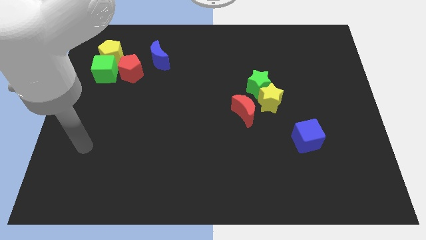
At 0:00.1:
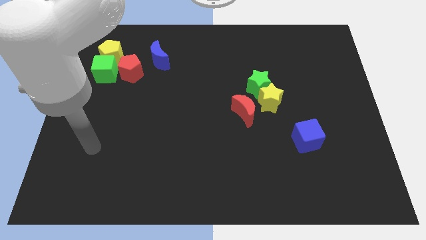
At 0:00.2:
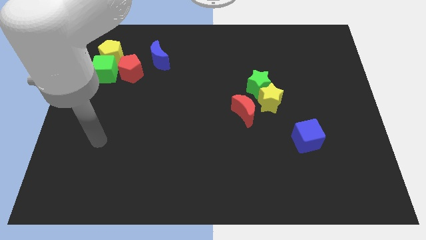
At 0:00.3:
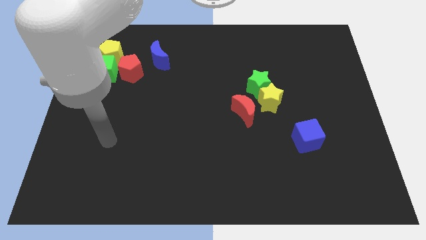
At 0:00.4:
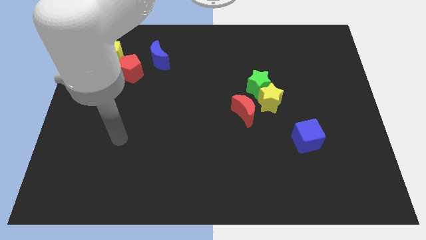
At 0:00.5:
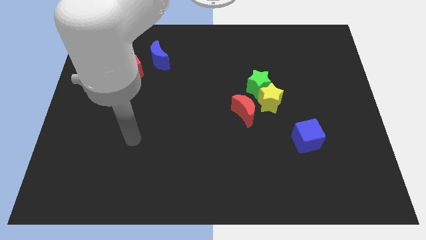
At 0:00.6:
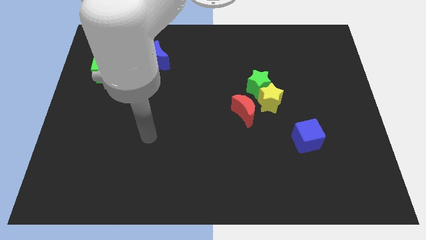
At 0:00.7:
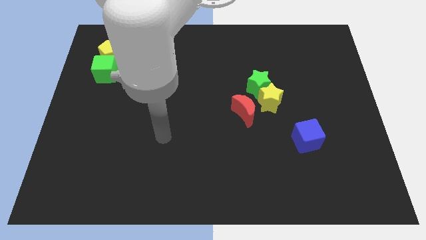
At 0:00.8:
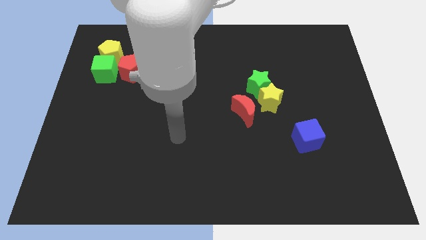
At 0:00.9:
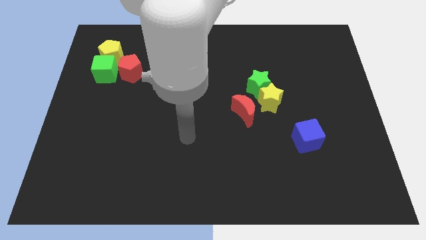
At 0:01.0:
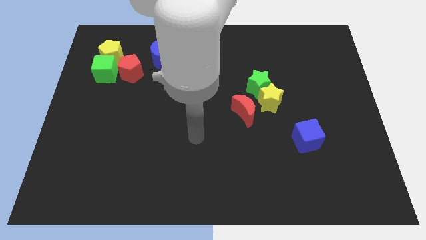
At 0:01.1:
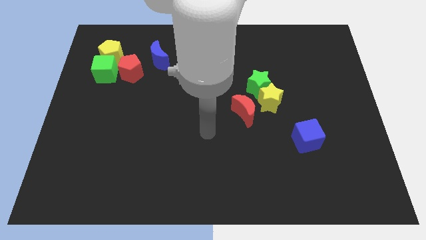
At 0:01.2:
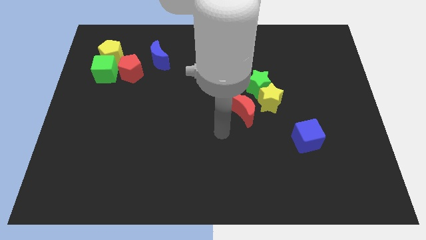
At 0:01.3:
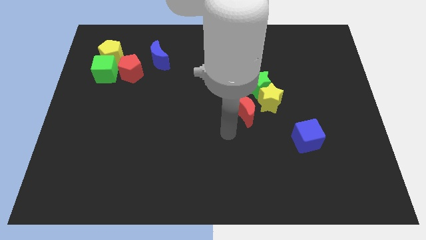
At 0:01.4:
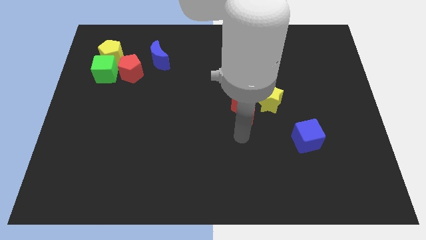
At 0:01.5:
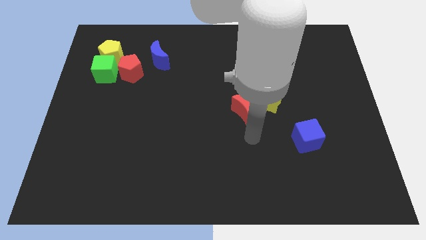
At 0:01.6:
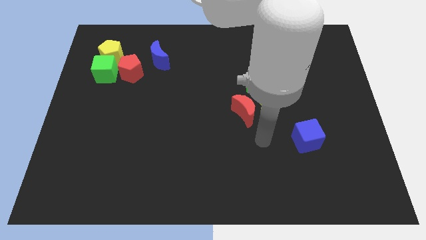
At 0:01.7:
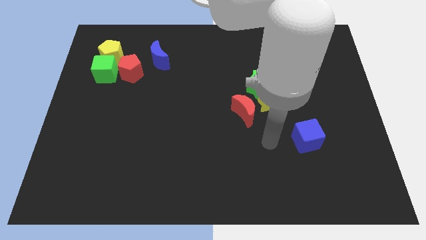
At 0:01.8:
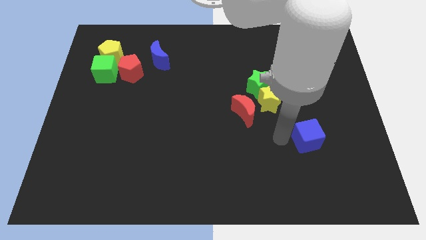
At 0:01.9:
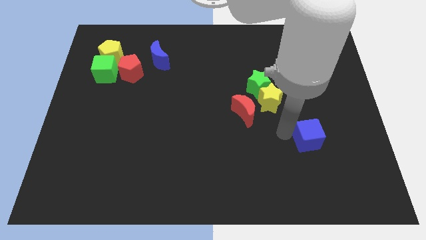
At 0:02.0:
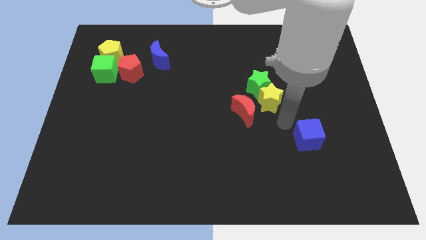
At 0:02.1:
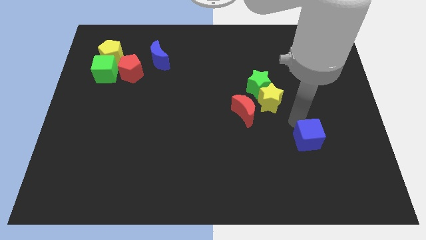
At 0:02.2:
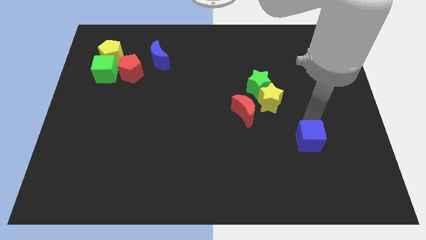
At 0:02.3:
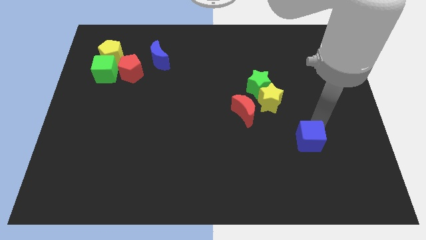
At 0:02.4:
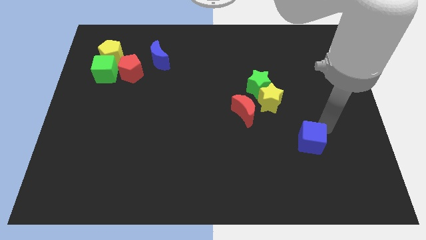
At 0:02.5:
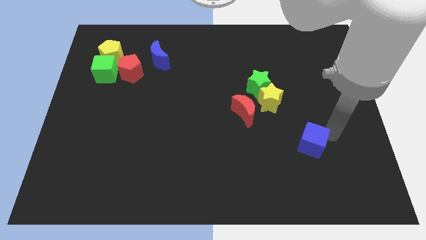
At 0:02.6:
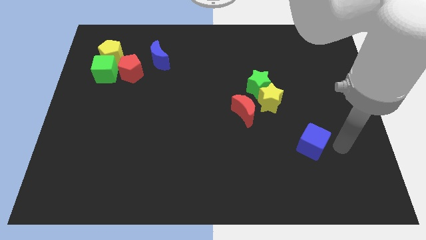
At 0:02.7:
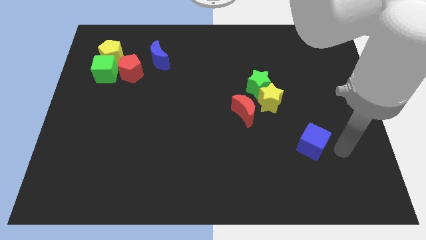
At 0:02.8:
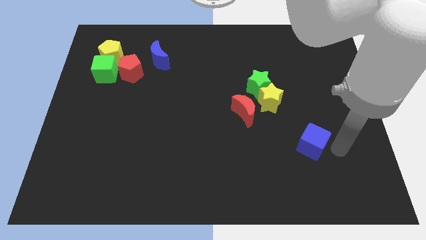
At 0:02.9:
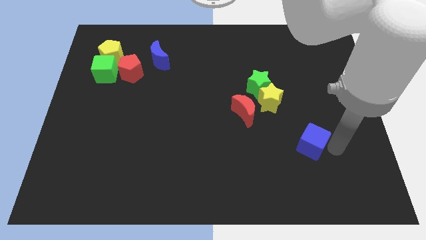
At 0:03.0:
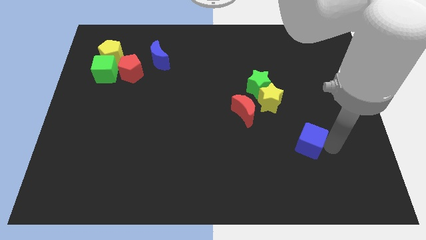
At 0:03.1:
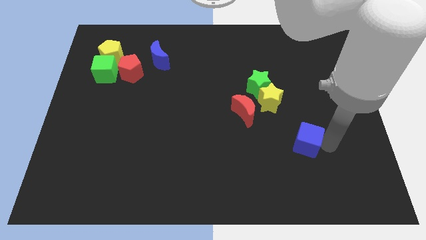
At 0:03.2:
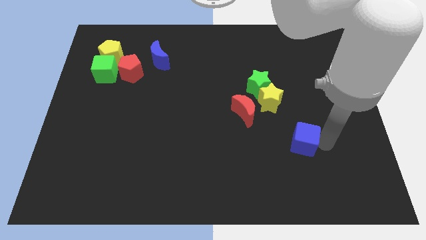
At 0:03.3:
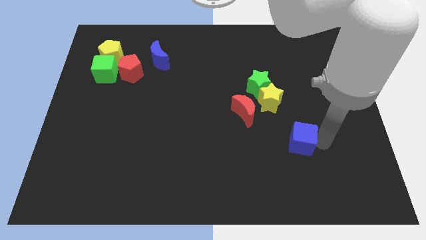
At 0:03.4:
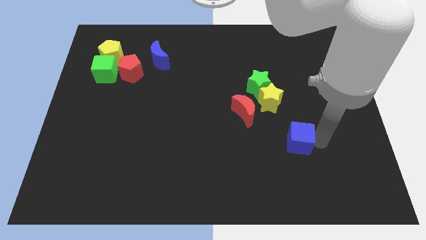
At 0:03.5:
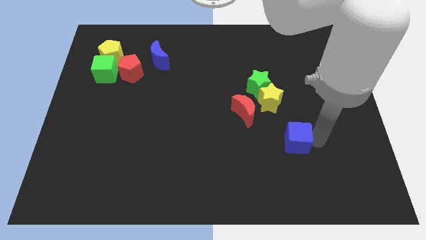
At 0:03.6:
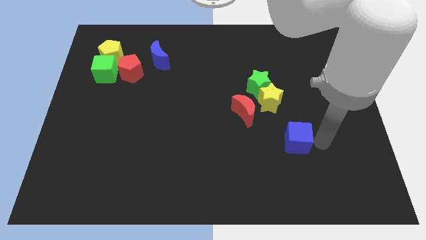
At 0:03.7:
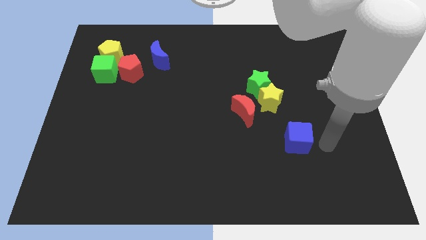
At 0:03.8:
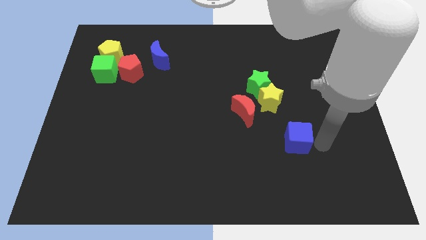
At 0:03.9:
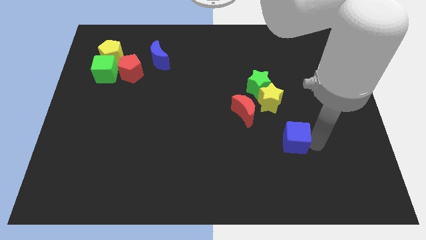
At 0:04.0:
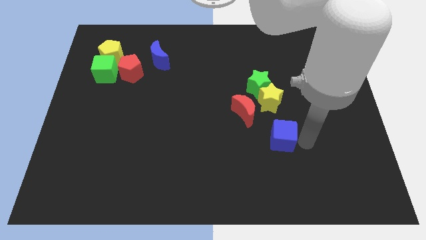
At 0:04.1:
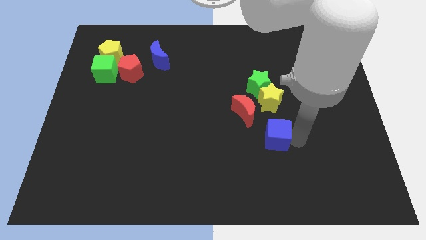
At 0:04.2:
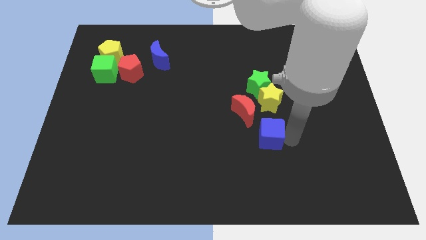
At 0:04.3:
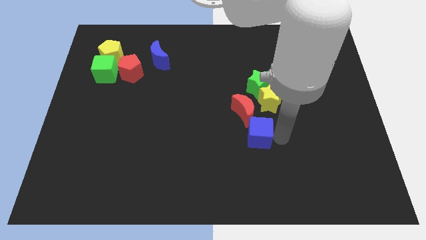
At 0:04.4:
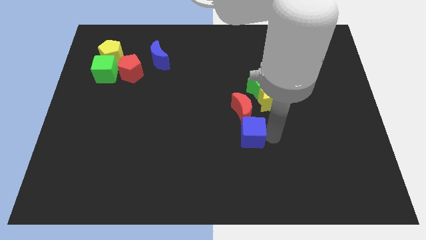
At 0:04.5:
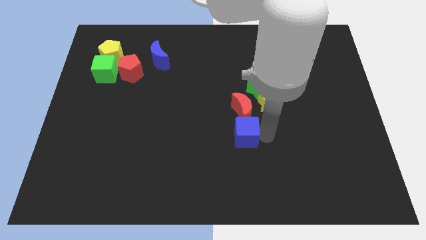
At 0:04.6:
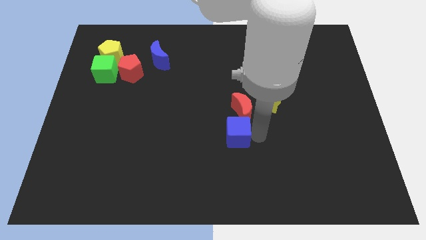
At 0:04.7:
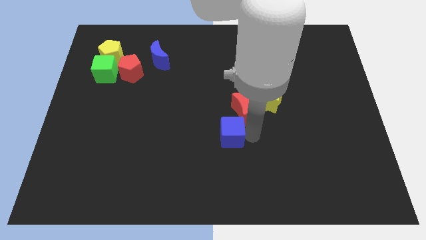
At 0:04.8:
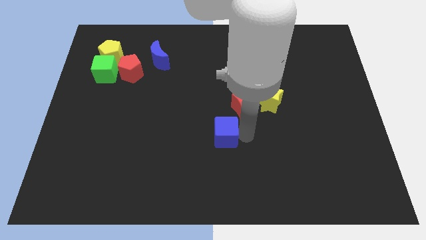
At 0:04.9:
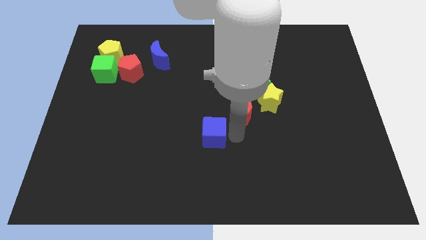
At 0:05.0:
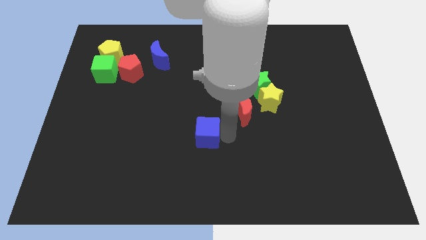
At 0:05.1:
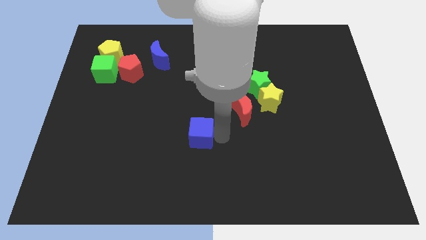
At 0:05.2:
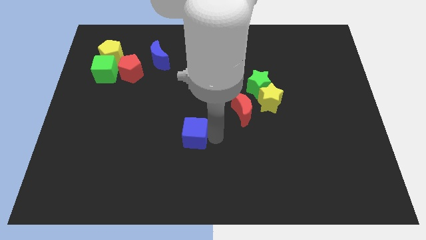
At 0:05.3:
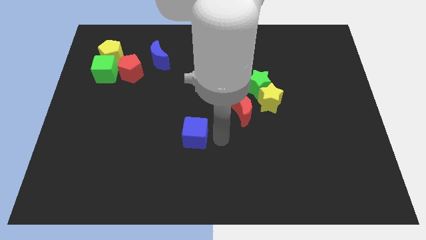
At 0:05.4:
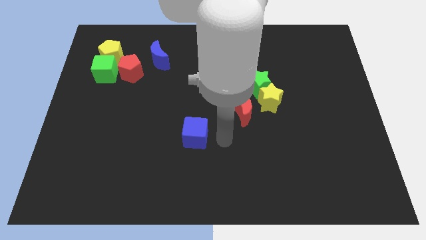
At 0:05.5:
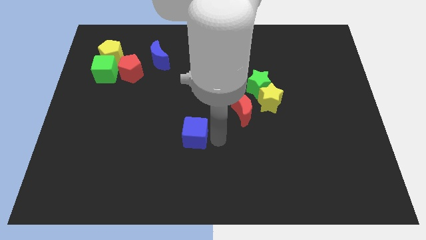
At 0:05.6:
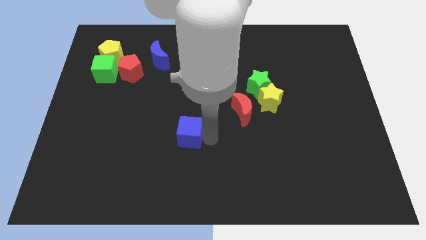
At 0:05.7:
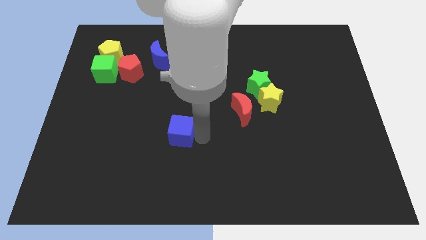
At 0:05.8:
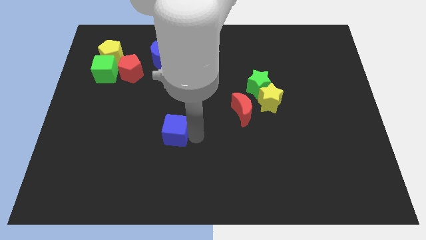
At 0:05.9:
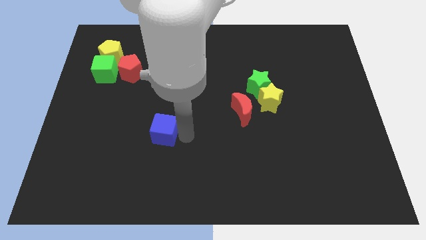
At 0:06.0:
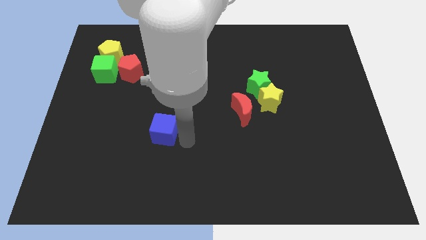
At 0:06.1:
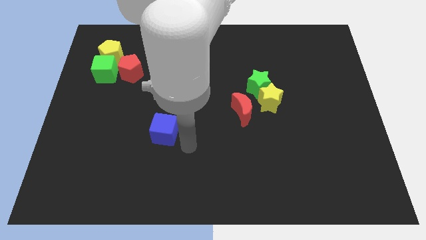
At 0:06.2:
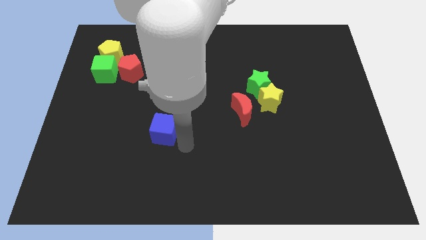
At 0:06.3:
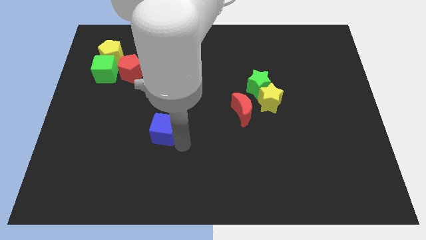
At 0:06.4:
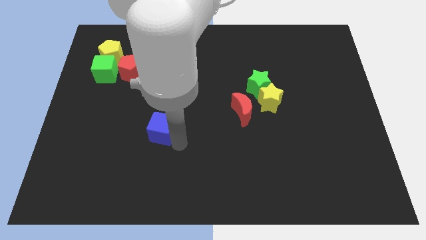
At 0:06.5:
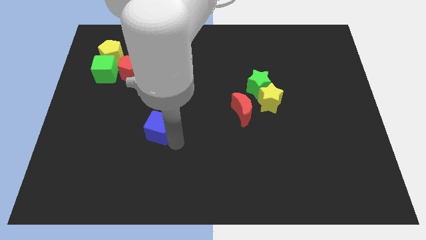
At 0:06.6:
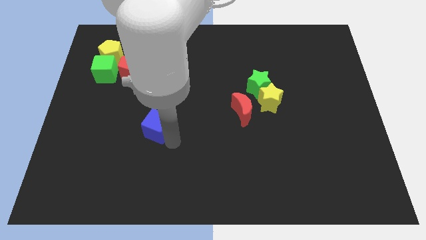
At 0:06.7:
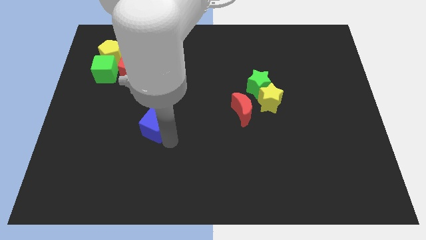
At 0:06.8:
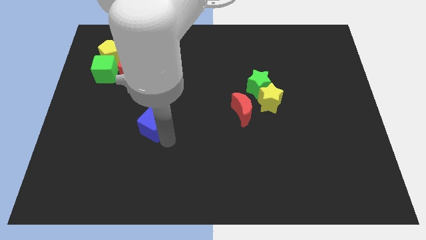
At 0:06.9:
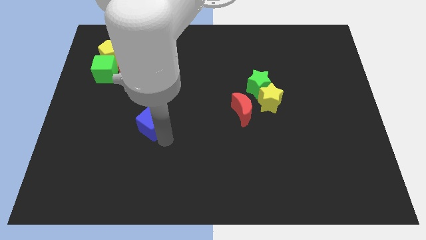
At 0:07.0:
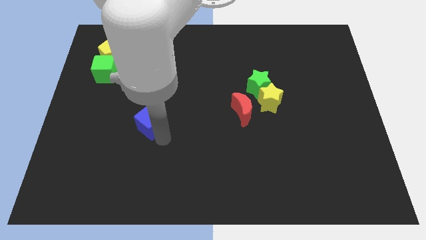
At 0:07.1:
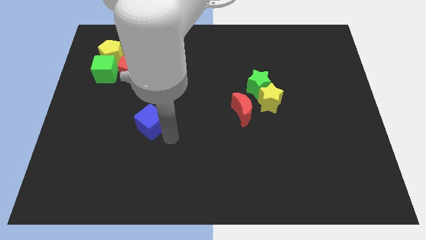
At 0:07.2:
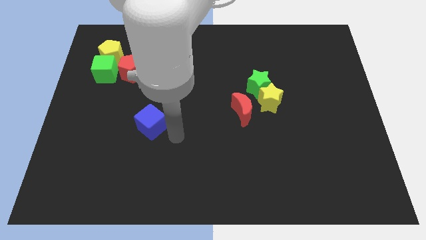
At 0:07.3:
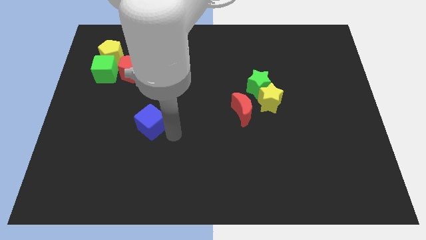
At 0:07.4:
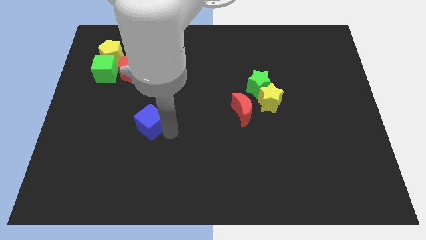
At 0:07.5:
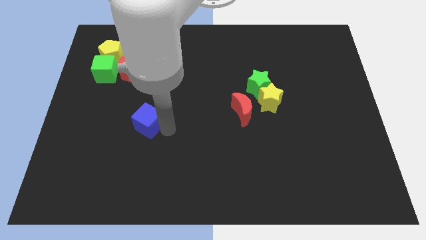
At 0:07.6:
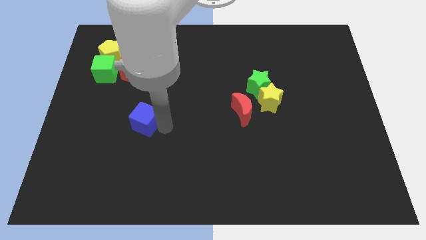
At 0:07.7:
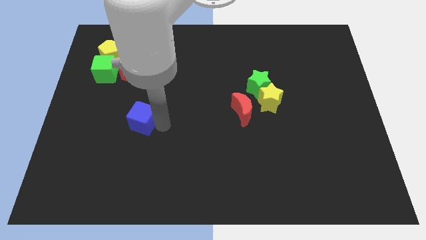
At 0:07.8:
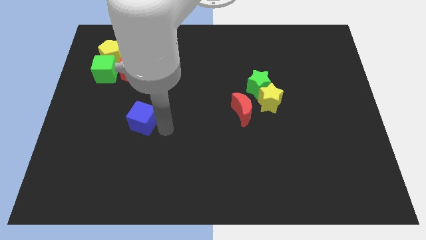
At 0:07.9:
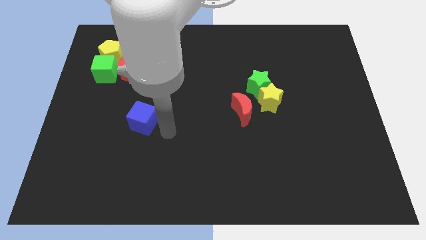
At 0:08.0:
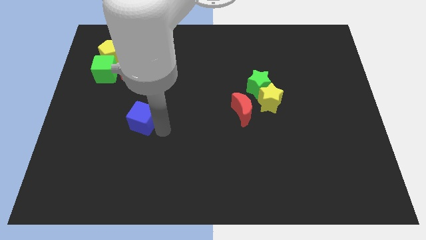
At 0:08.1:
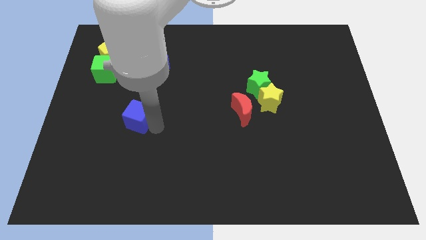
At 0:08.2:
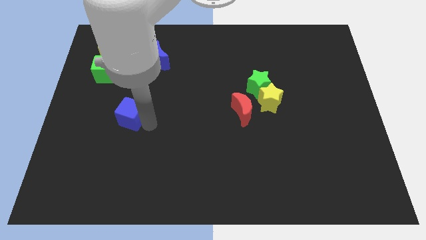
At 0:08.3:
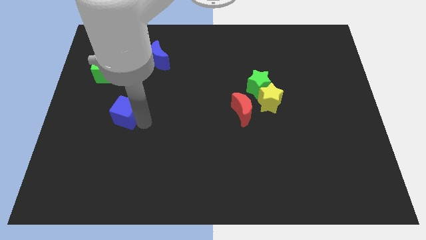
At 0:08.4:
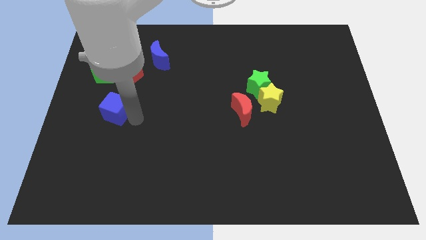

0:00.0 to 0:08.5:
slide the blue cube below the green cube

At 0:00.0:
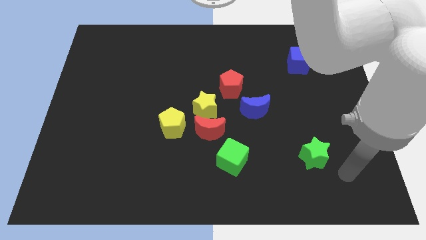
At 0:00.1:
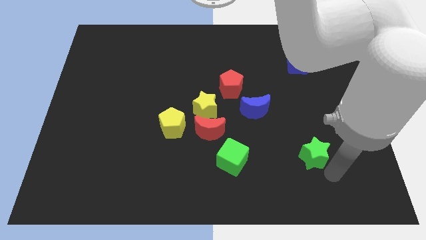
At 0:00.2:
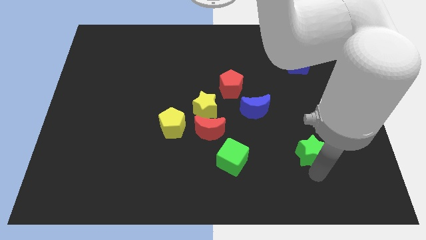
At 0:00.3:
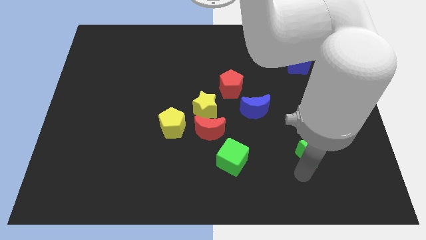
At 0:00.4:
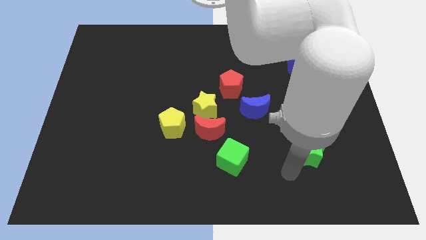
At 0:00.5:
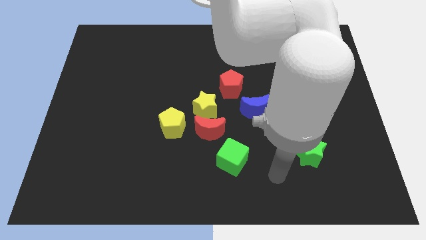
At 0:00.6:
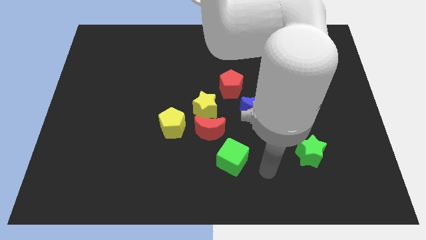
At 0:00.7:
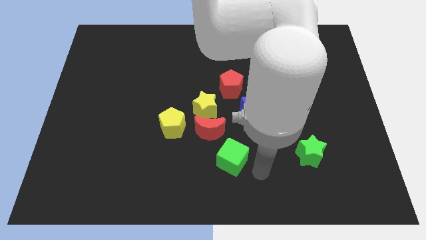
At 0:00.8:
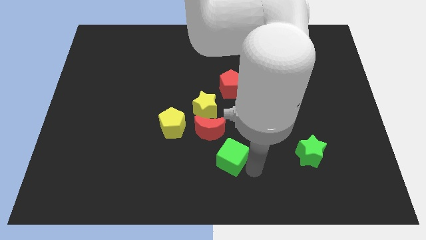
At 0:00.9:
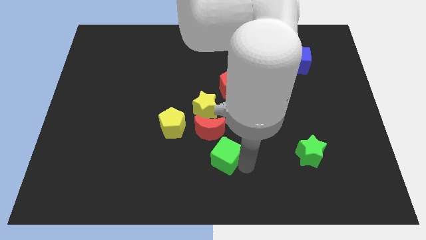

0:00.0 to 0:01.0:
move the green cube to the bottom side of the yellow star
